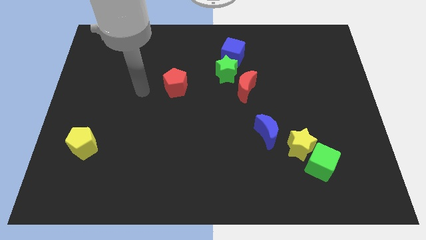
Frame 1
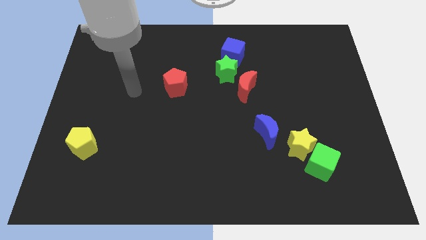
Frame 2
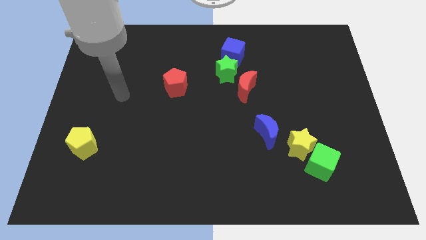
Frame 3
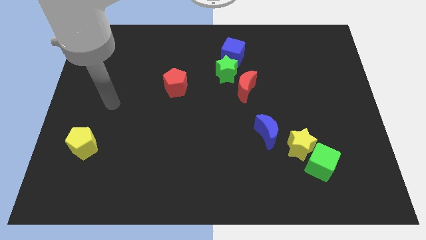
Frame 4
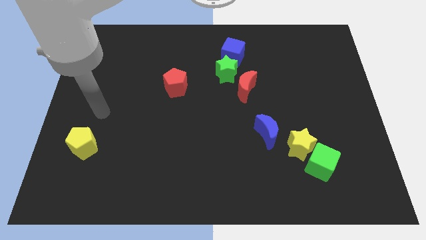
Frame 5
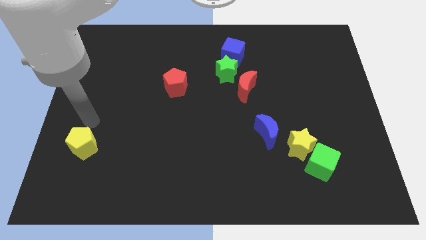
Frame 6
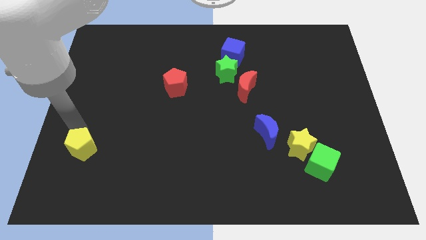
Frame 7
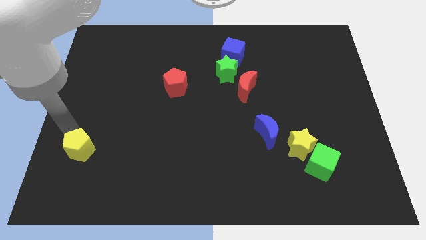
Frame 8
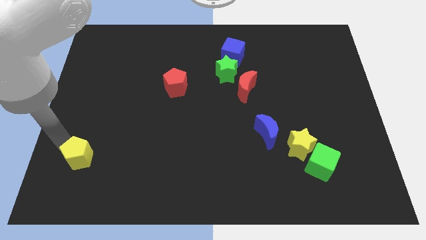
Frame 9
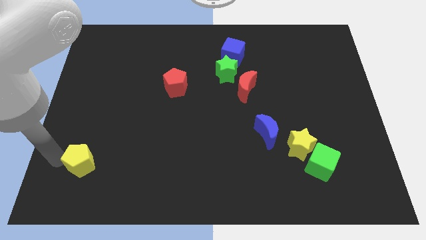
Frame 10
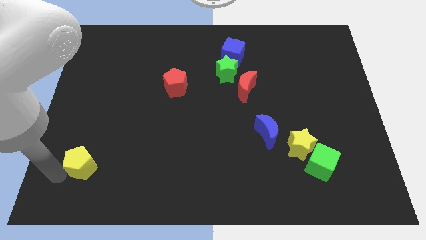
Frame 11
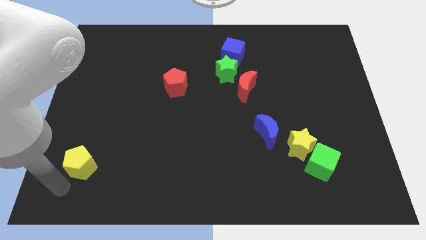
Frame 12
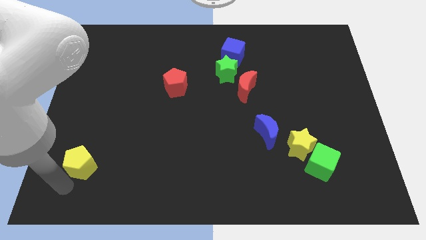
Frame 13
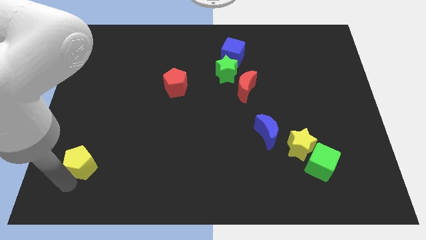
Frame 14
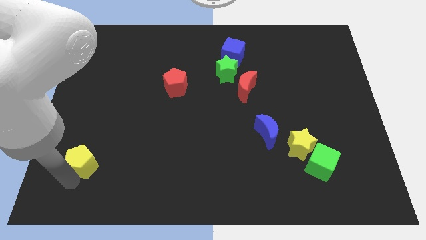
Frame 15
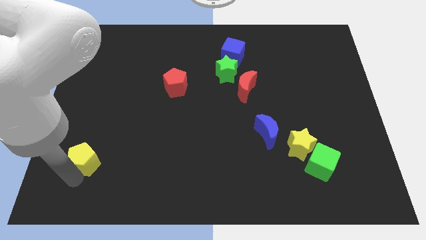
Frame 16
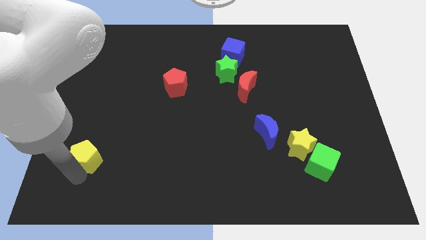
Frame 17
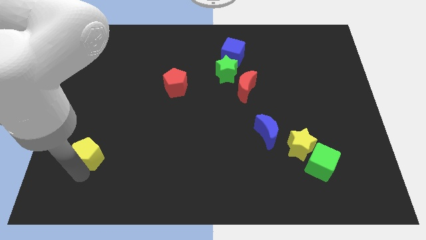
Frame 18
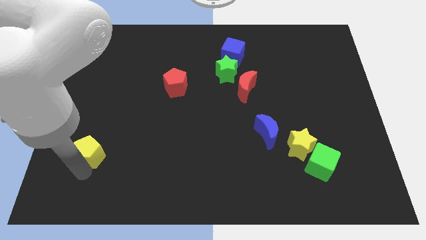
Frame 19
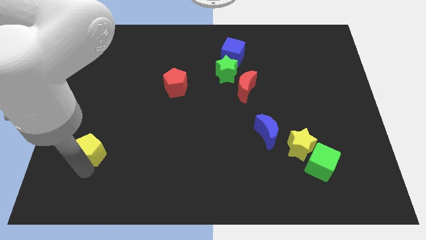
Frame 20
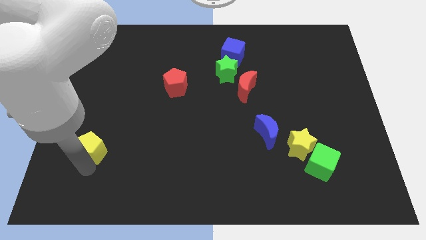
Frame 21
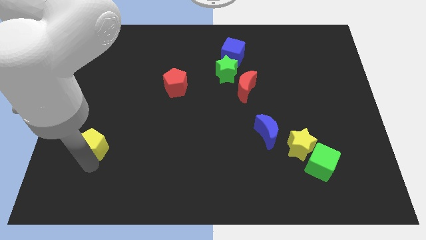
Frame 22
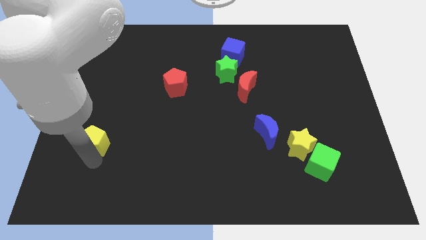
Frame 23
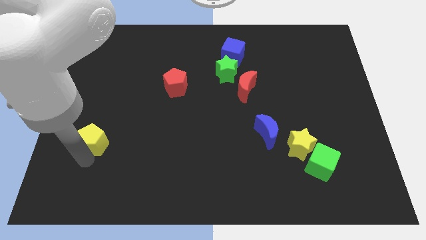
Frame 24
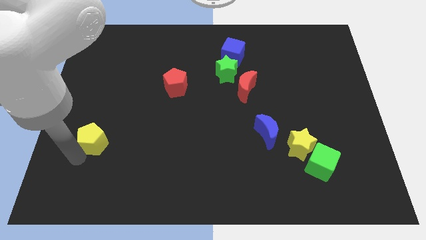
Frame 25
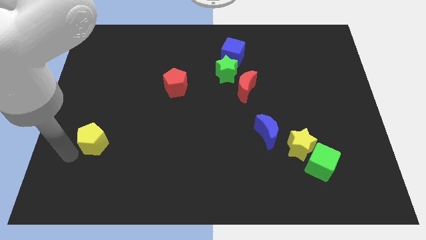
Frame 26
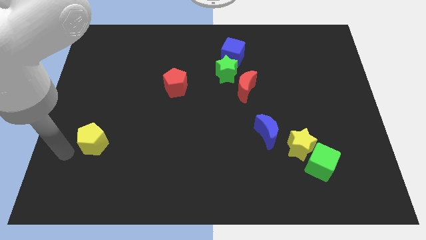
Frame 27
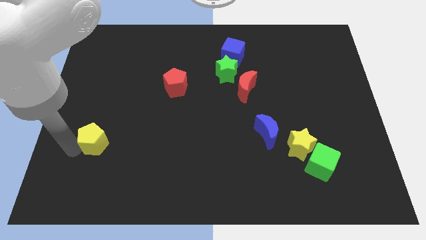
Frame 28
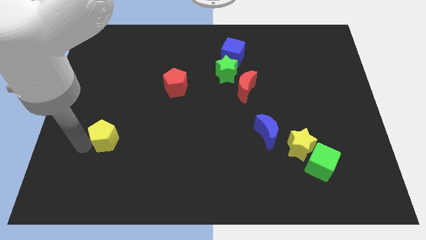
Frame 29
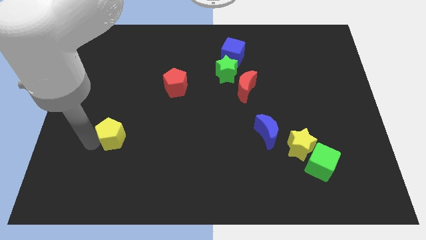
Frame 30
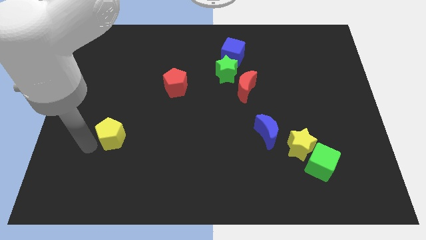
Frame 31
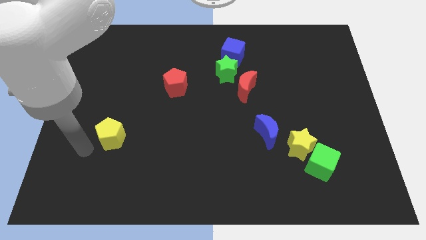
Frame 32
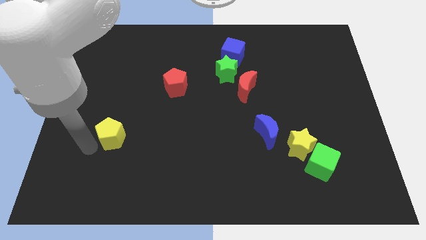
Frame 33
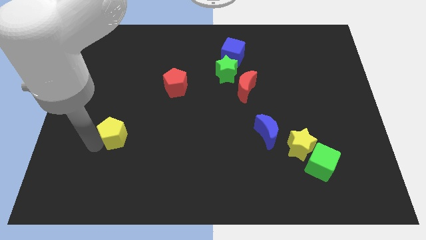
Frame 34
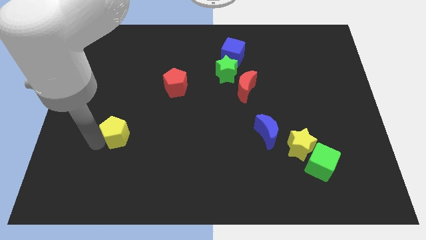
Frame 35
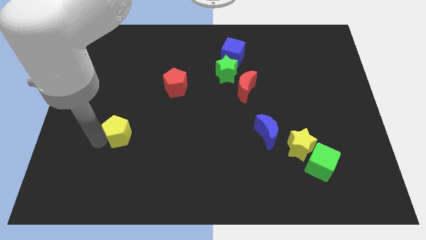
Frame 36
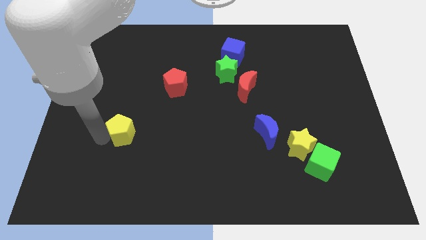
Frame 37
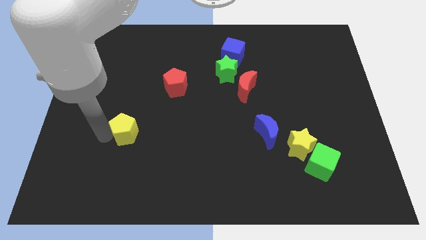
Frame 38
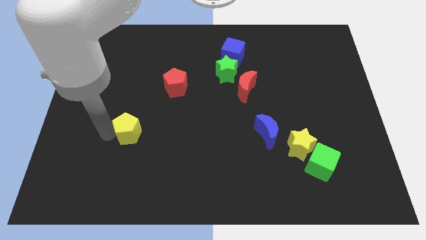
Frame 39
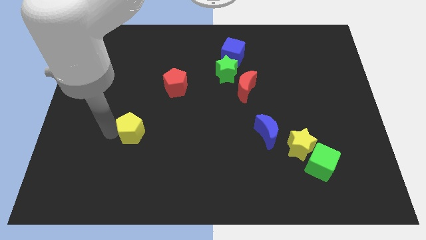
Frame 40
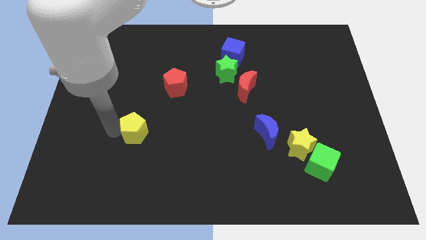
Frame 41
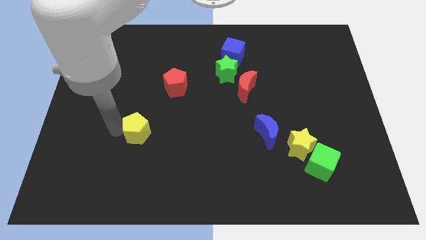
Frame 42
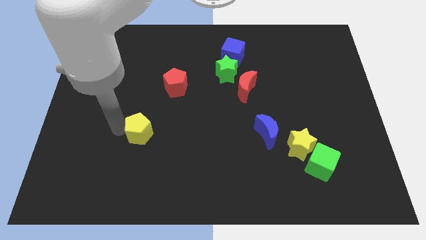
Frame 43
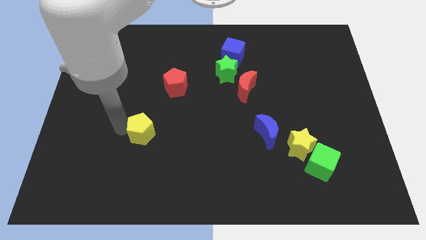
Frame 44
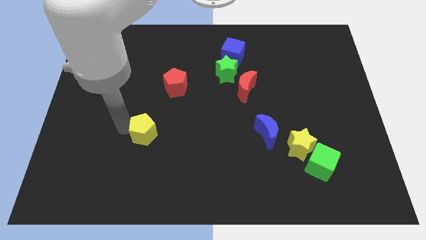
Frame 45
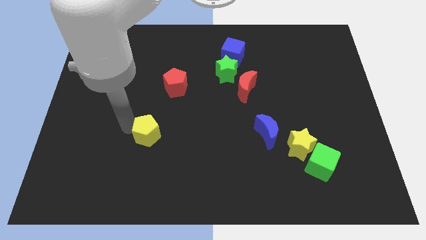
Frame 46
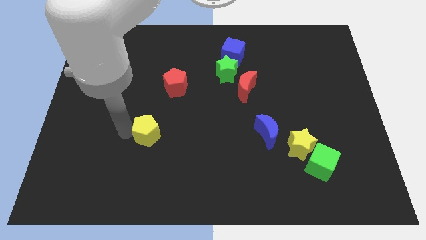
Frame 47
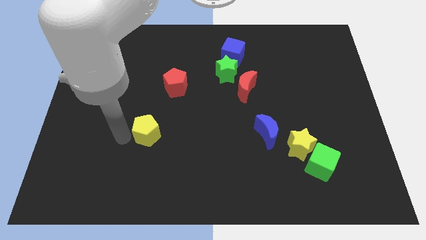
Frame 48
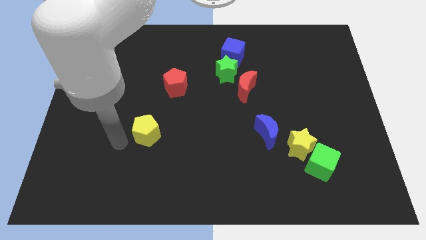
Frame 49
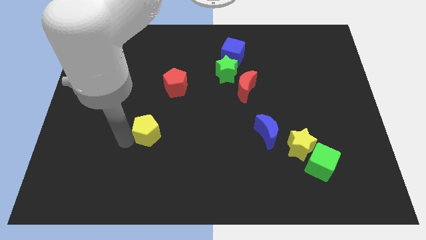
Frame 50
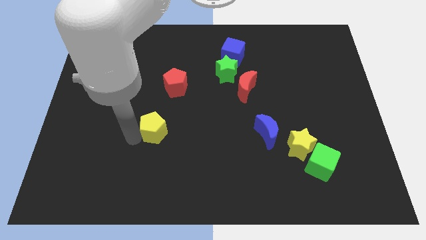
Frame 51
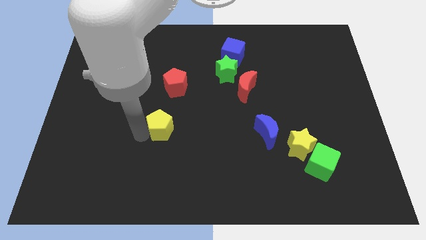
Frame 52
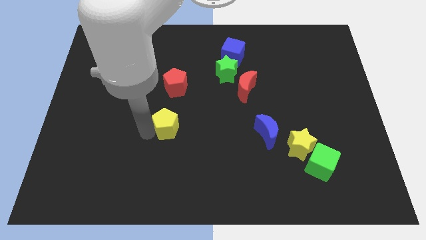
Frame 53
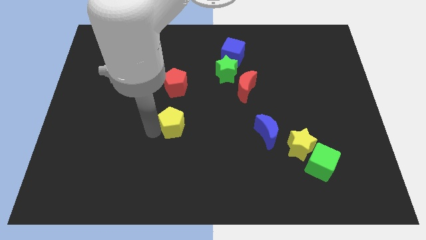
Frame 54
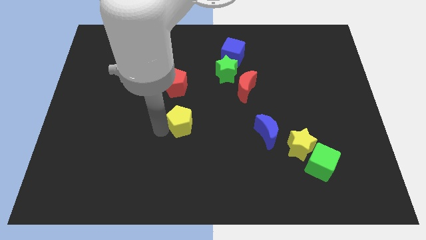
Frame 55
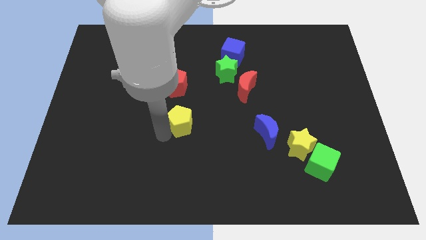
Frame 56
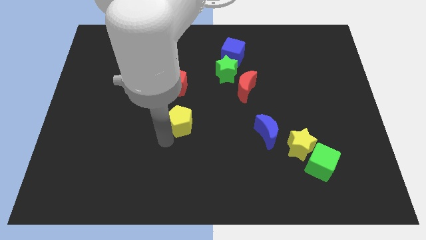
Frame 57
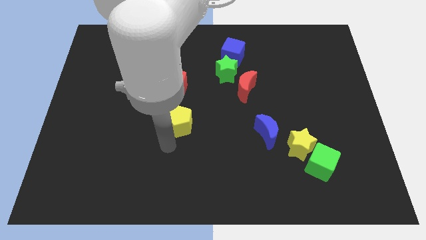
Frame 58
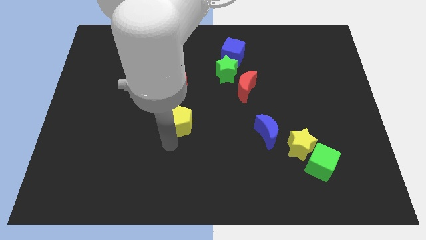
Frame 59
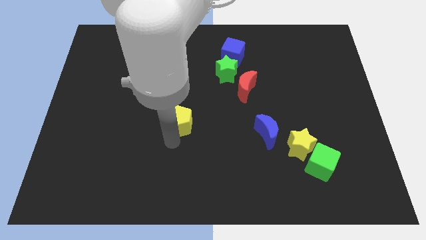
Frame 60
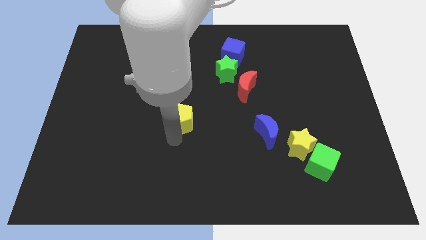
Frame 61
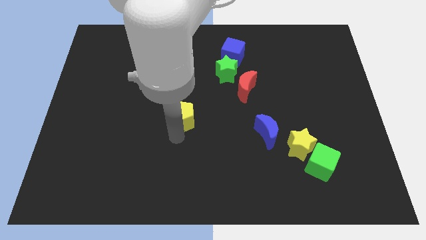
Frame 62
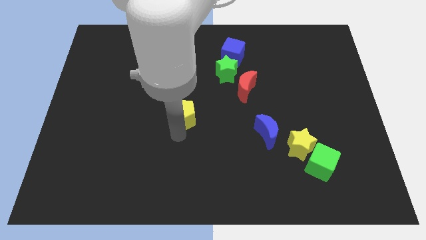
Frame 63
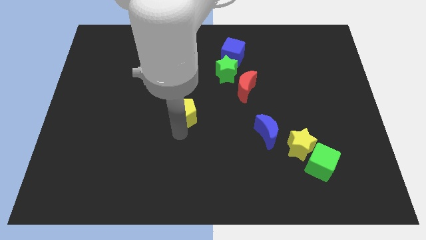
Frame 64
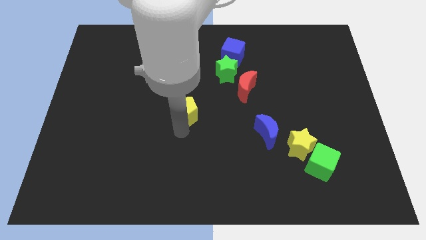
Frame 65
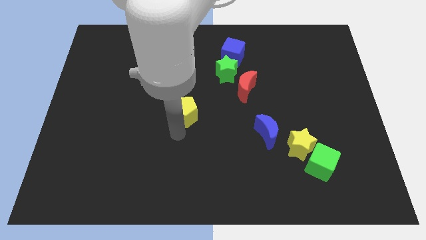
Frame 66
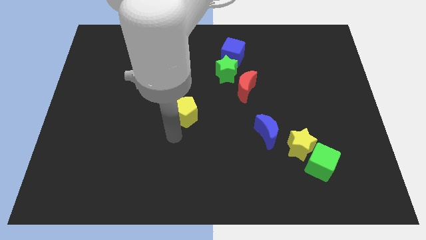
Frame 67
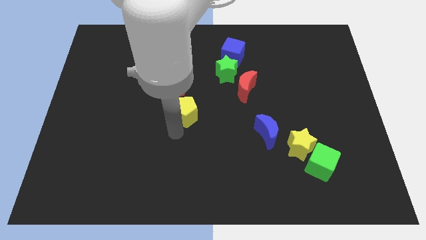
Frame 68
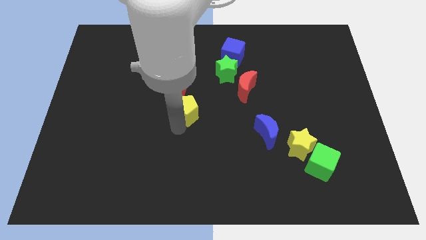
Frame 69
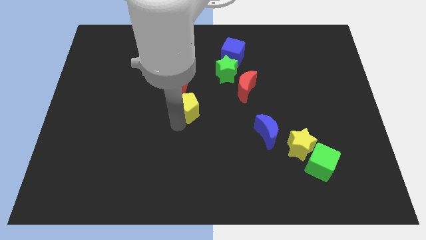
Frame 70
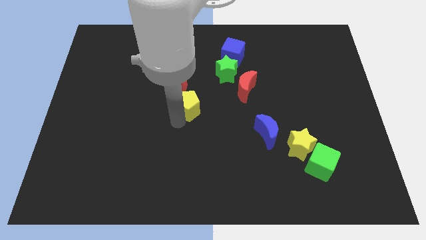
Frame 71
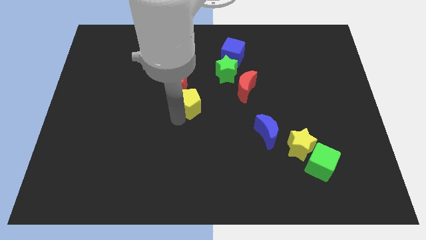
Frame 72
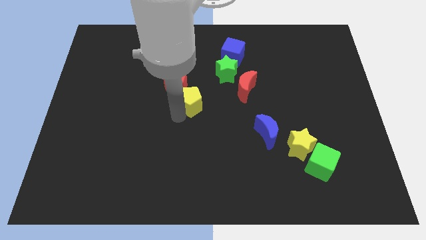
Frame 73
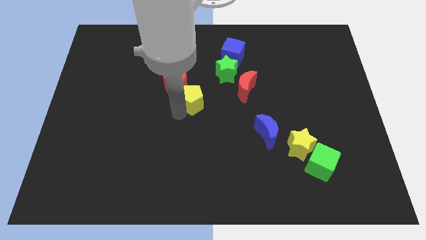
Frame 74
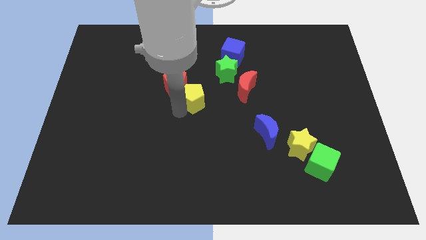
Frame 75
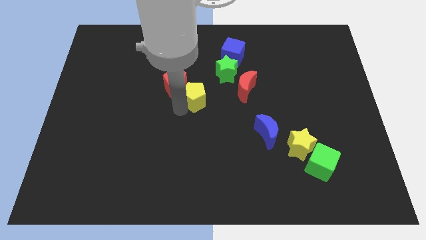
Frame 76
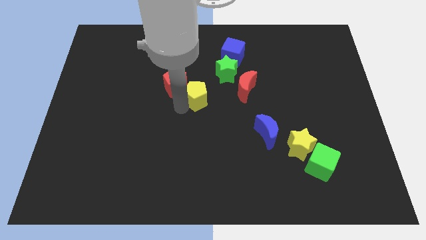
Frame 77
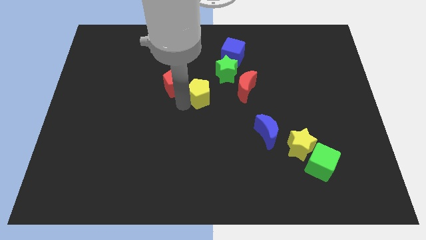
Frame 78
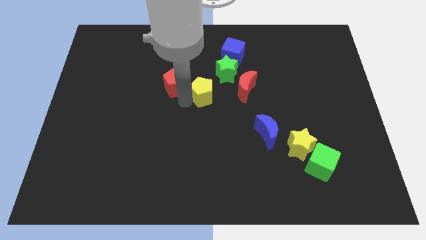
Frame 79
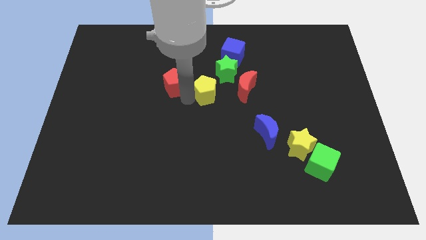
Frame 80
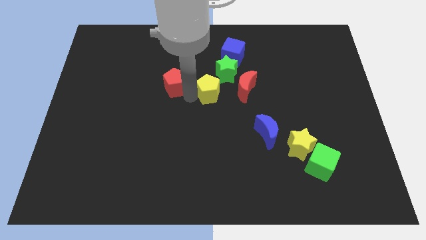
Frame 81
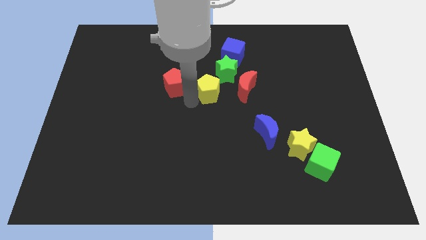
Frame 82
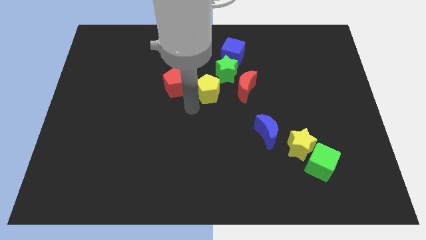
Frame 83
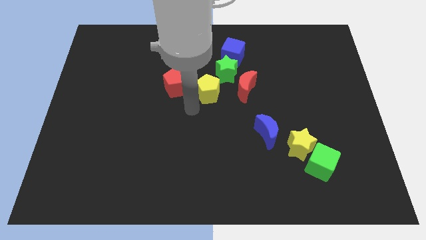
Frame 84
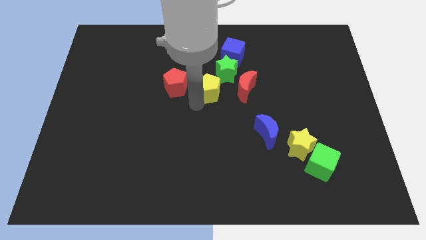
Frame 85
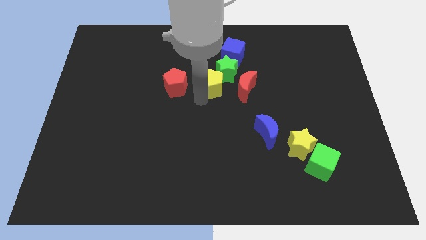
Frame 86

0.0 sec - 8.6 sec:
move the yellow pentagon towards the green star
